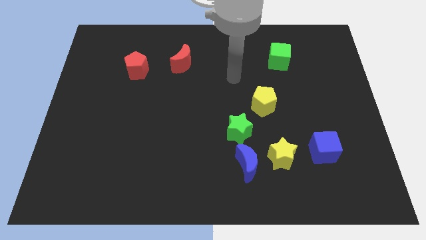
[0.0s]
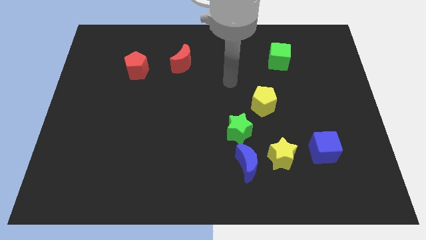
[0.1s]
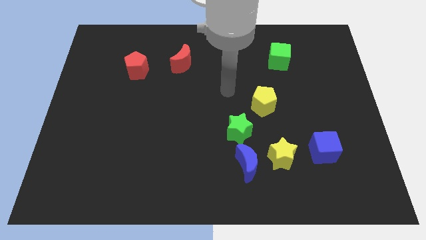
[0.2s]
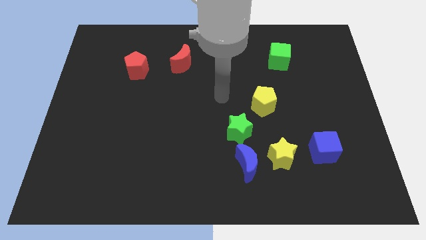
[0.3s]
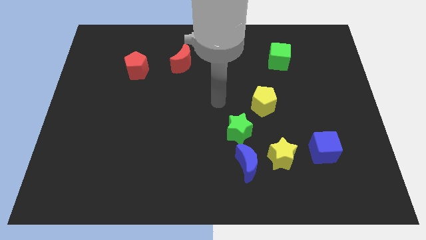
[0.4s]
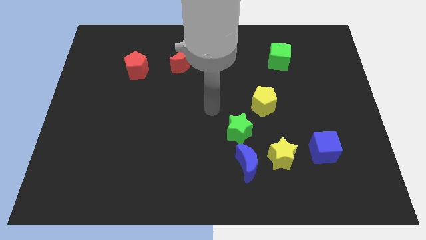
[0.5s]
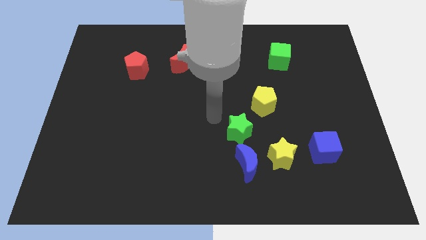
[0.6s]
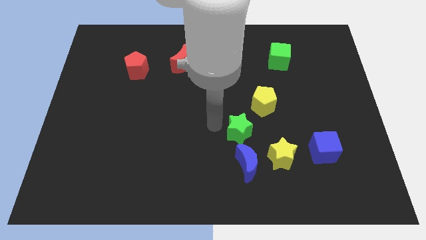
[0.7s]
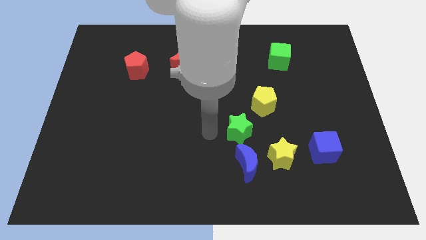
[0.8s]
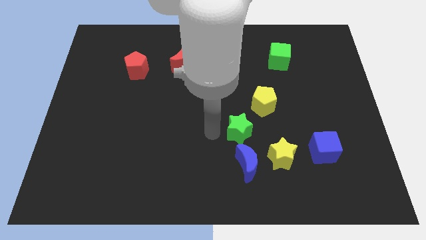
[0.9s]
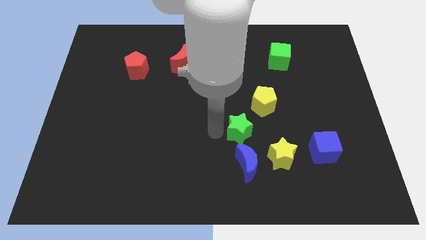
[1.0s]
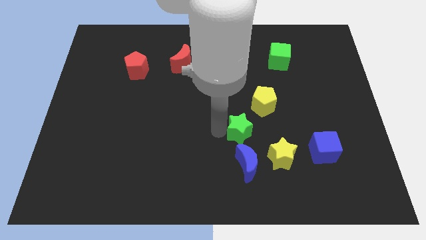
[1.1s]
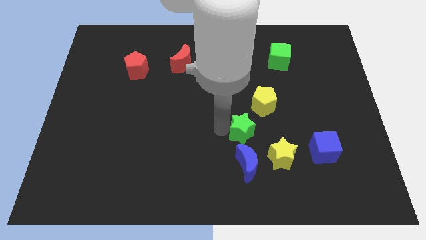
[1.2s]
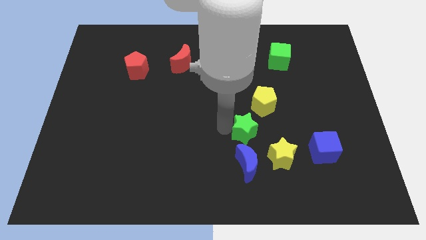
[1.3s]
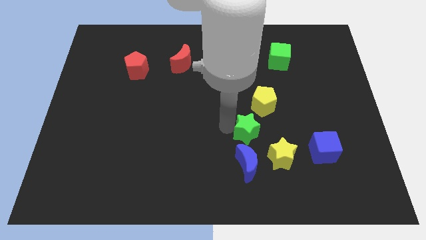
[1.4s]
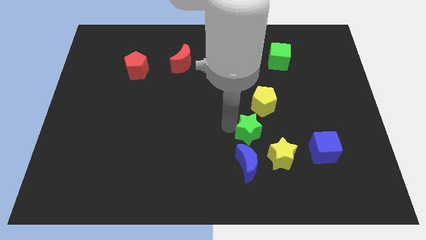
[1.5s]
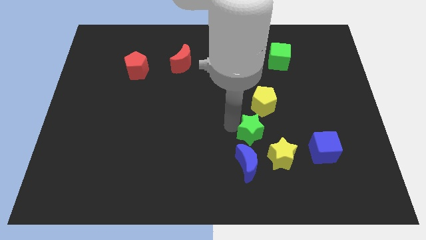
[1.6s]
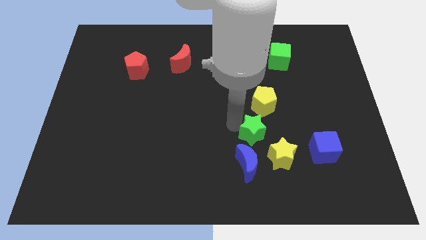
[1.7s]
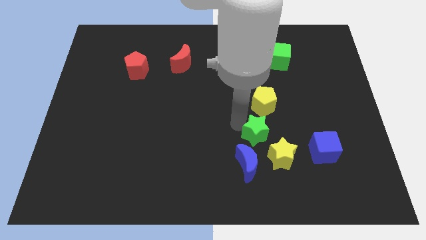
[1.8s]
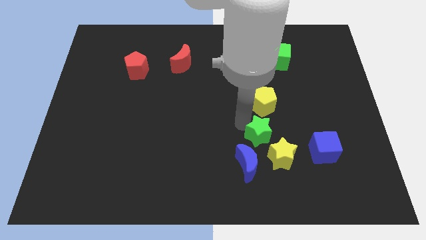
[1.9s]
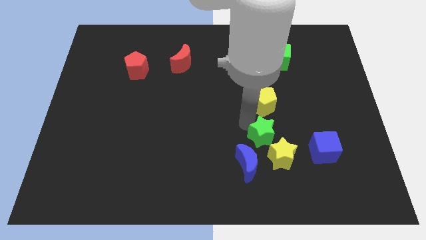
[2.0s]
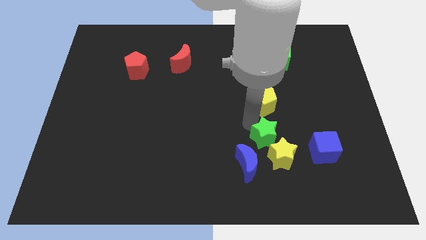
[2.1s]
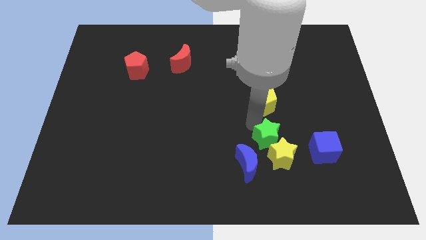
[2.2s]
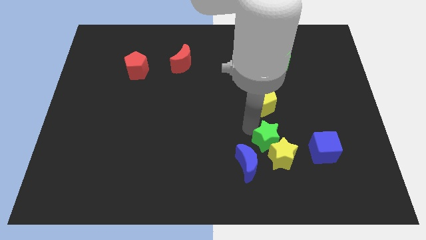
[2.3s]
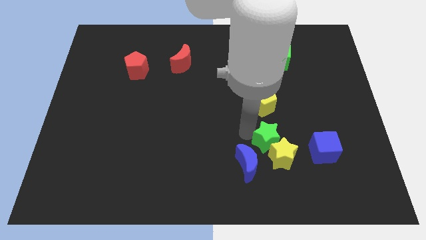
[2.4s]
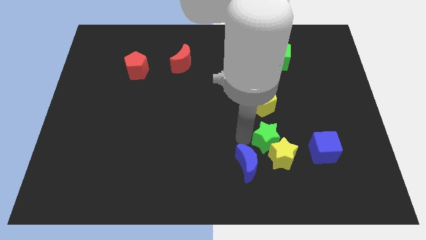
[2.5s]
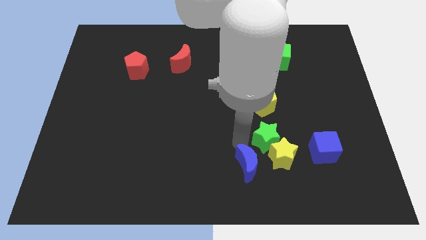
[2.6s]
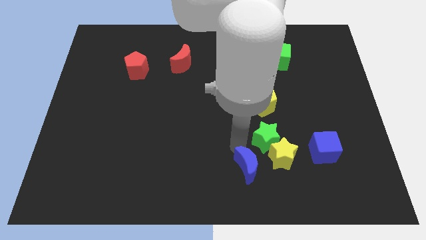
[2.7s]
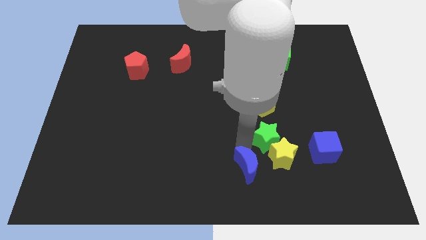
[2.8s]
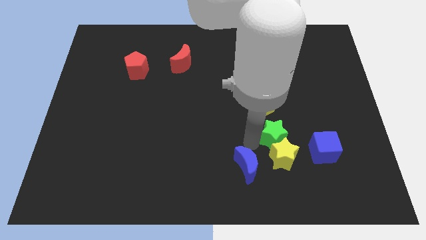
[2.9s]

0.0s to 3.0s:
slightly slide the green star to the right

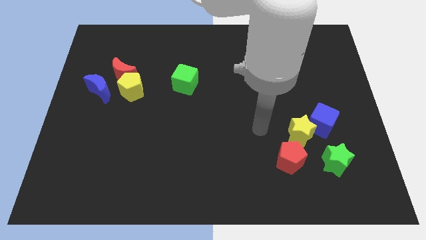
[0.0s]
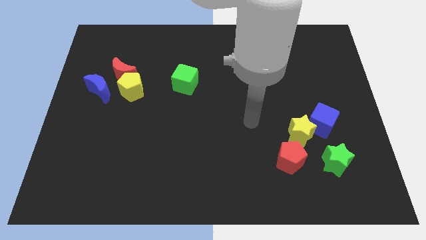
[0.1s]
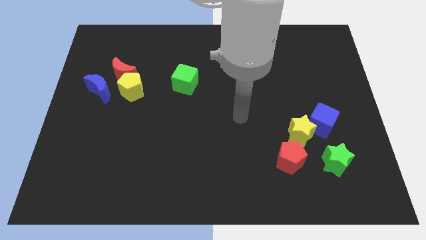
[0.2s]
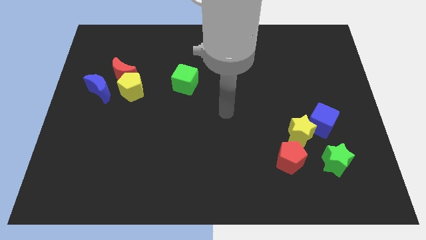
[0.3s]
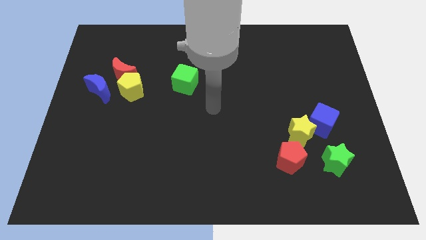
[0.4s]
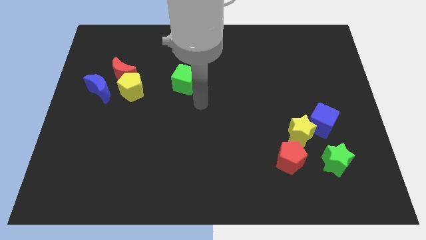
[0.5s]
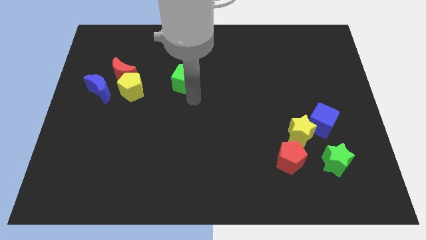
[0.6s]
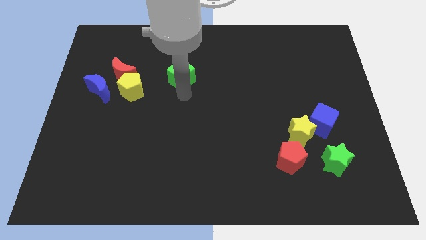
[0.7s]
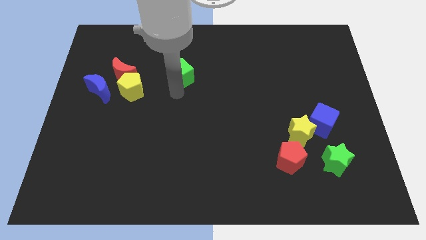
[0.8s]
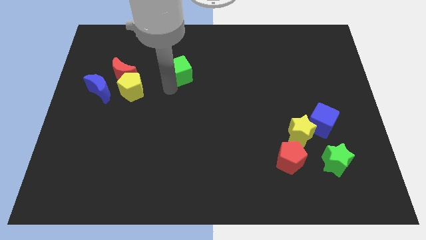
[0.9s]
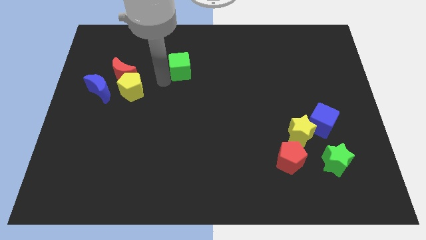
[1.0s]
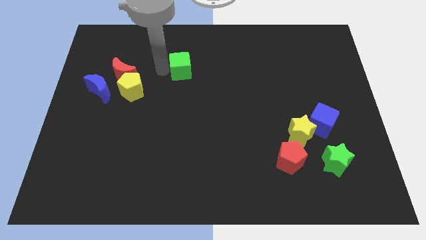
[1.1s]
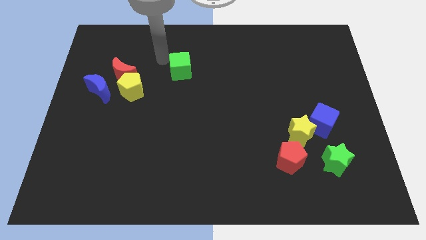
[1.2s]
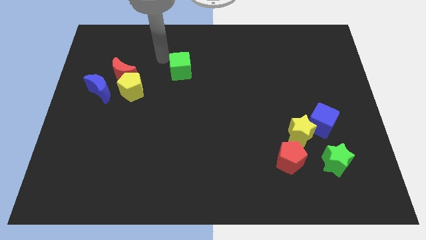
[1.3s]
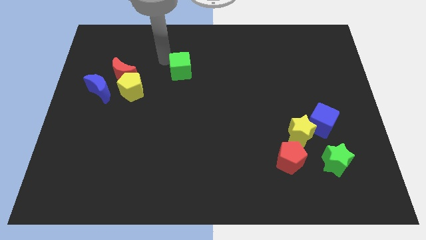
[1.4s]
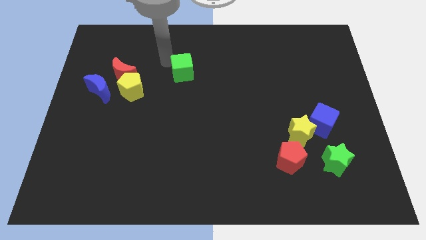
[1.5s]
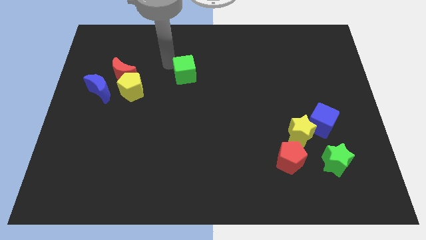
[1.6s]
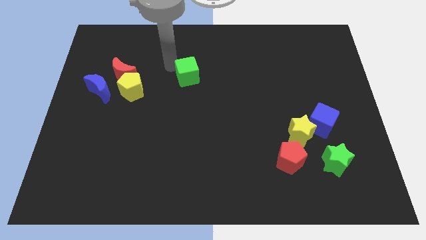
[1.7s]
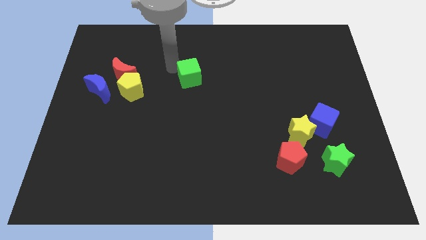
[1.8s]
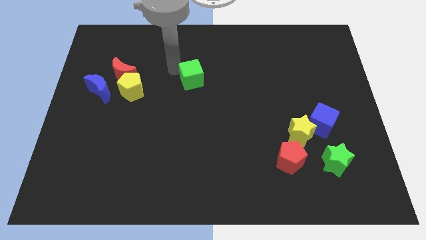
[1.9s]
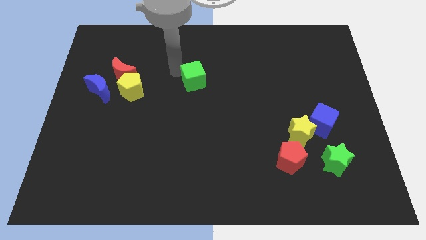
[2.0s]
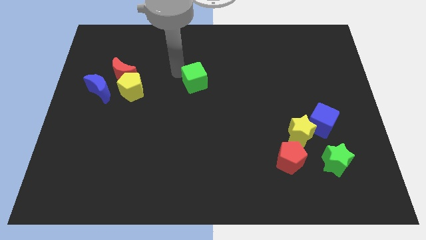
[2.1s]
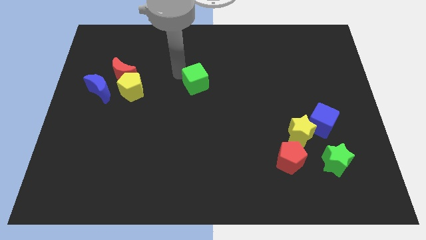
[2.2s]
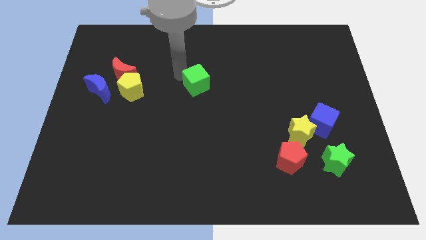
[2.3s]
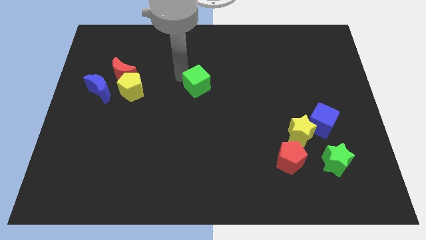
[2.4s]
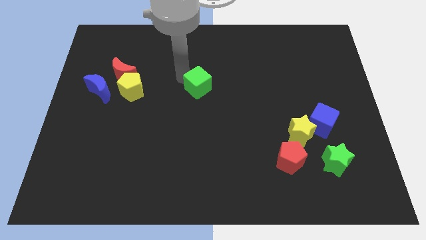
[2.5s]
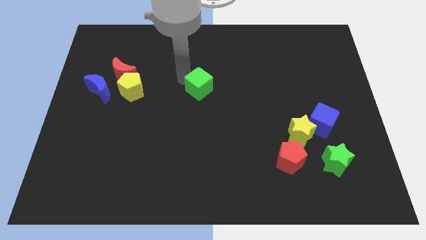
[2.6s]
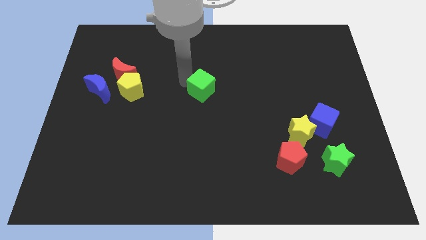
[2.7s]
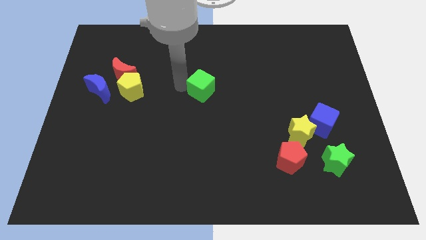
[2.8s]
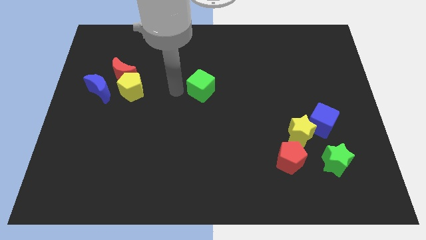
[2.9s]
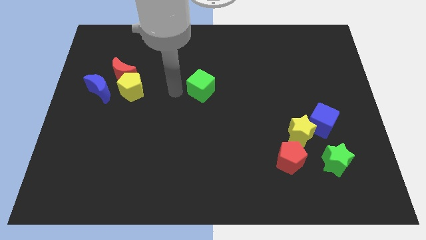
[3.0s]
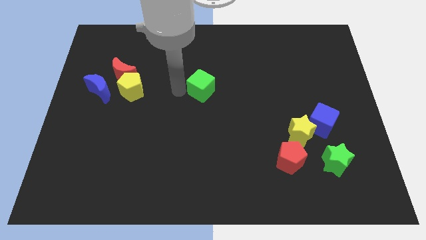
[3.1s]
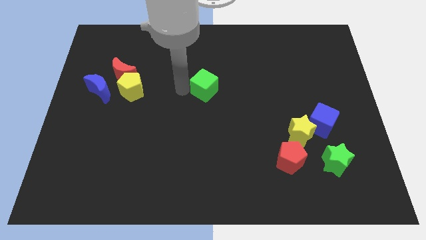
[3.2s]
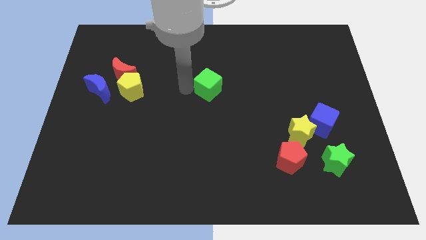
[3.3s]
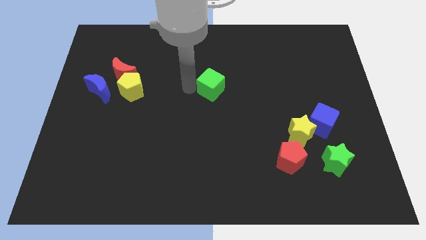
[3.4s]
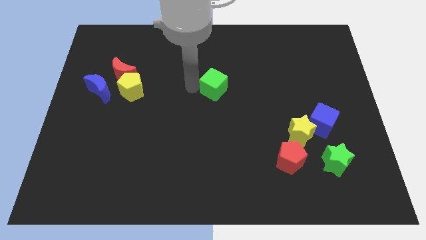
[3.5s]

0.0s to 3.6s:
slightly slide the green cube to the right

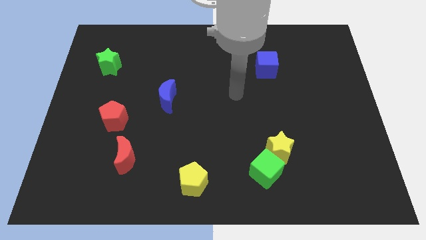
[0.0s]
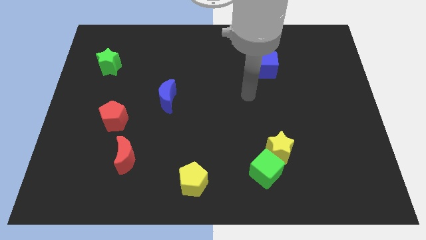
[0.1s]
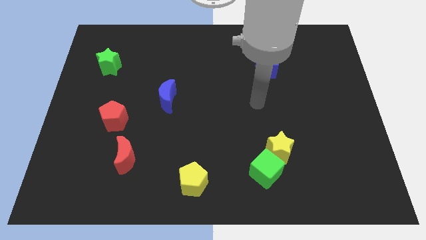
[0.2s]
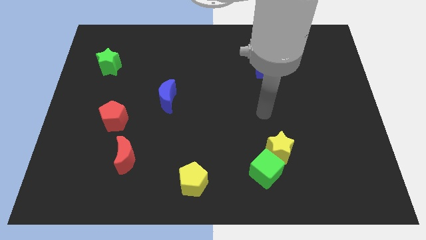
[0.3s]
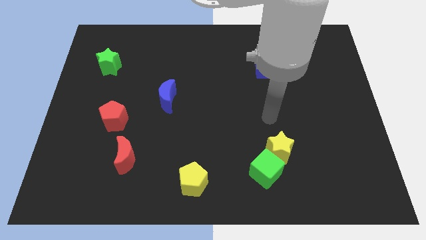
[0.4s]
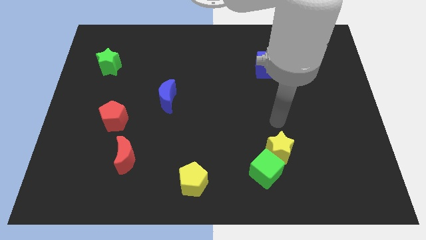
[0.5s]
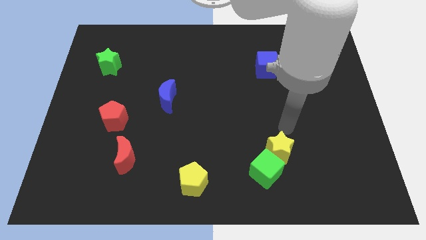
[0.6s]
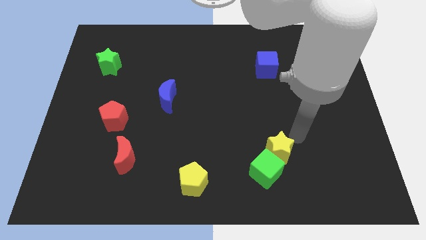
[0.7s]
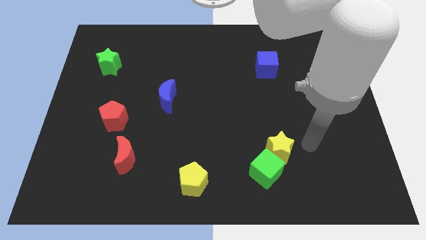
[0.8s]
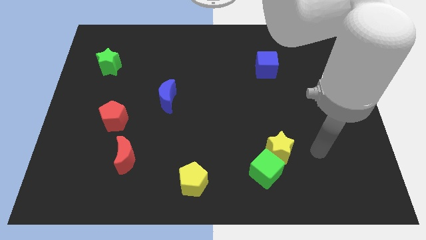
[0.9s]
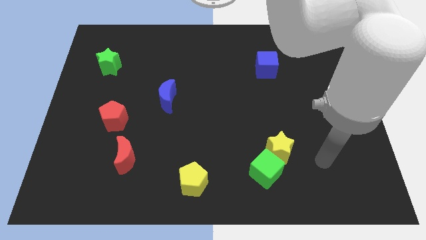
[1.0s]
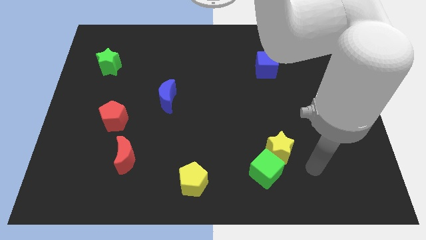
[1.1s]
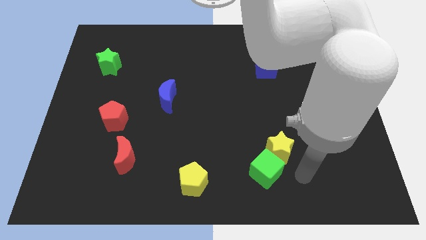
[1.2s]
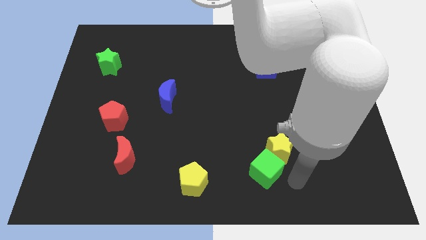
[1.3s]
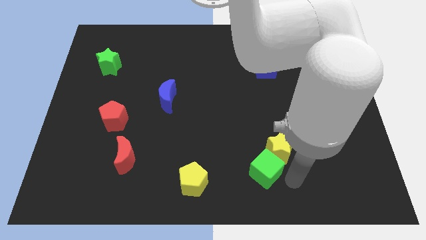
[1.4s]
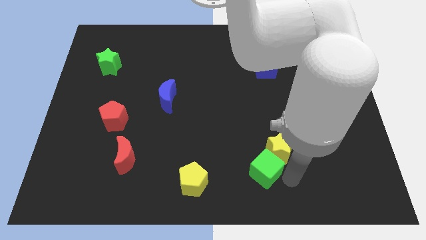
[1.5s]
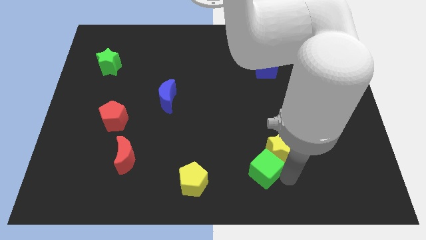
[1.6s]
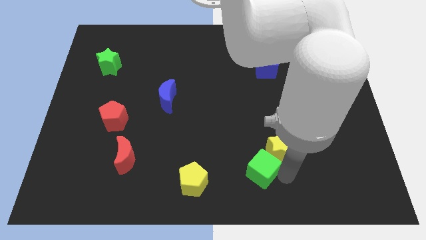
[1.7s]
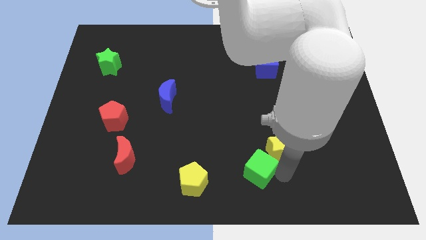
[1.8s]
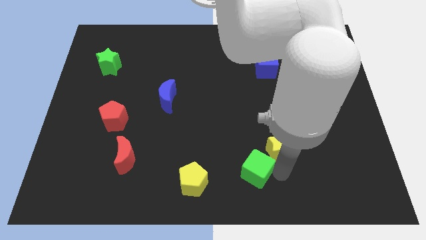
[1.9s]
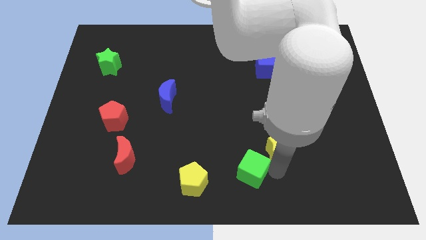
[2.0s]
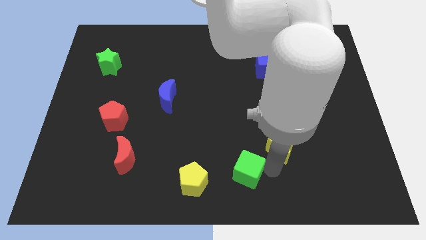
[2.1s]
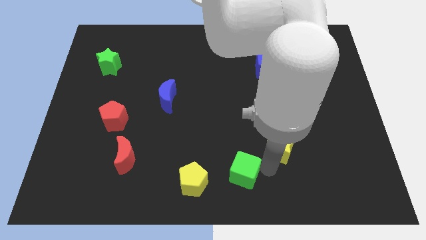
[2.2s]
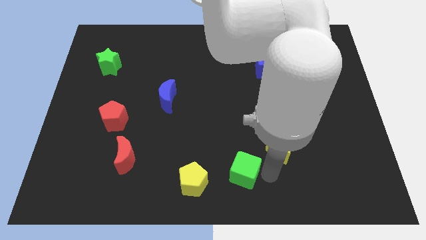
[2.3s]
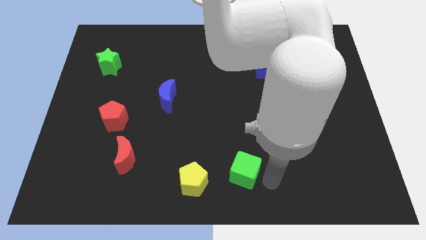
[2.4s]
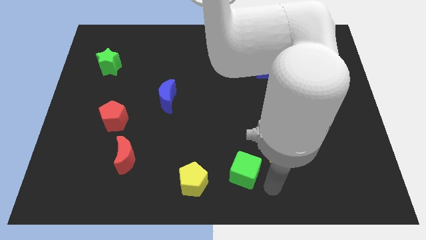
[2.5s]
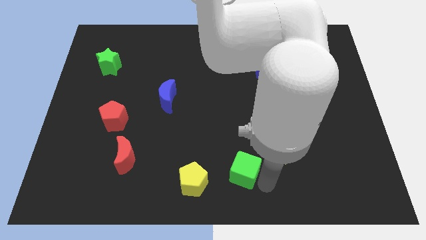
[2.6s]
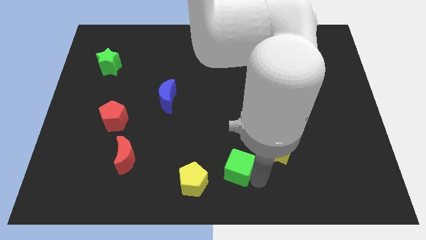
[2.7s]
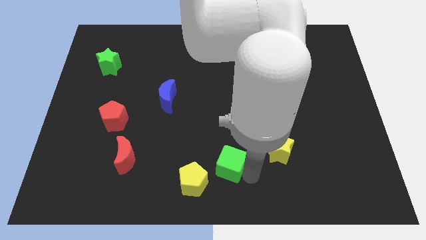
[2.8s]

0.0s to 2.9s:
slide the green cube left a little bit
